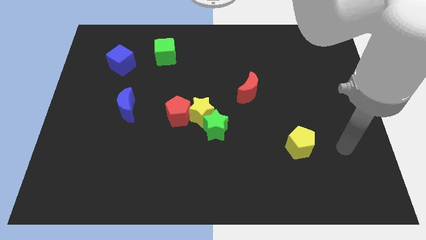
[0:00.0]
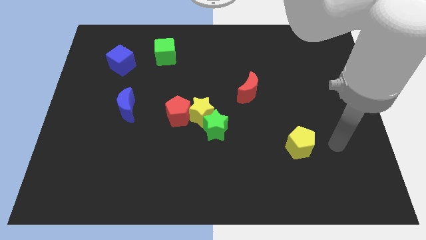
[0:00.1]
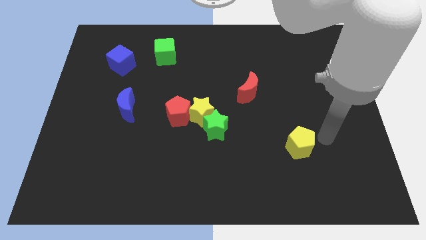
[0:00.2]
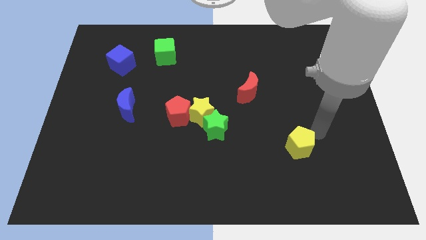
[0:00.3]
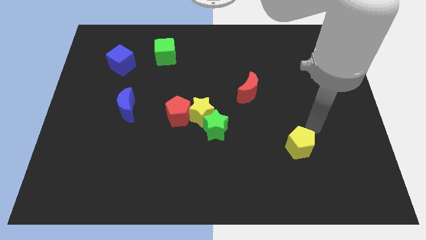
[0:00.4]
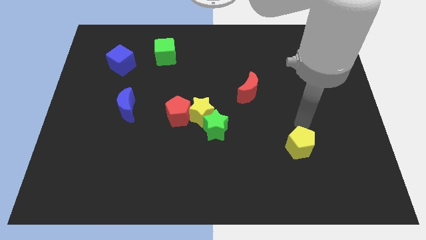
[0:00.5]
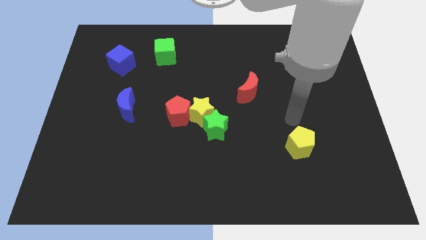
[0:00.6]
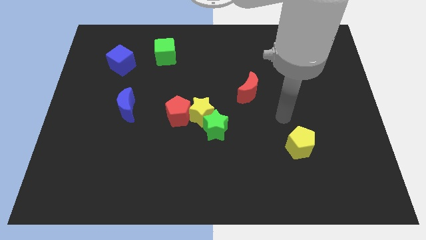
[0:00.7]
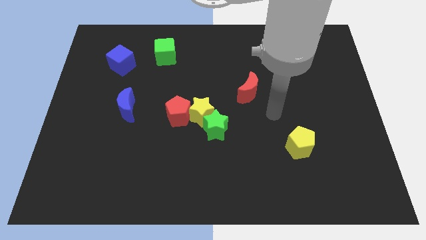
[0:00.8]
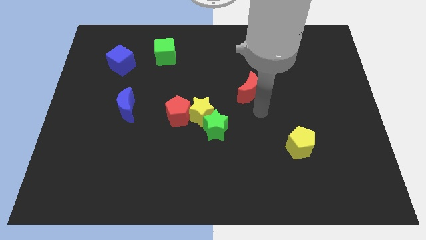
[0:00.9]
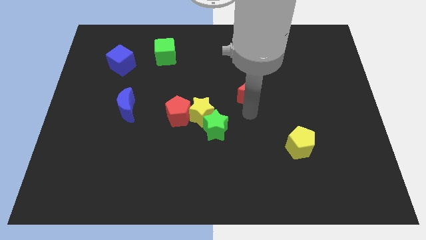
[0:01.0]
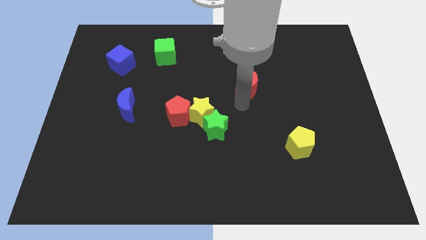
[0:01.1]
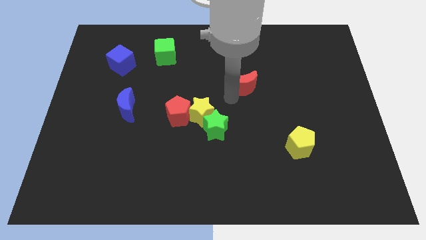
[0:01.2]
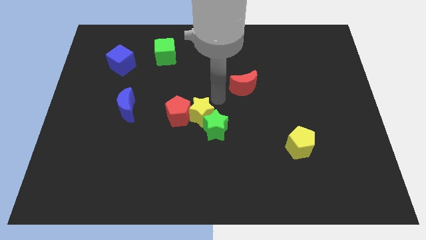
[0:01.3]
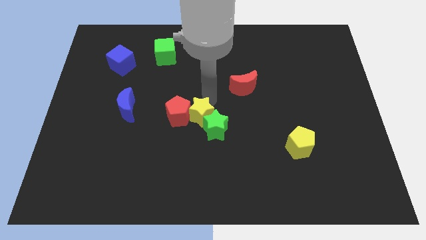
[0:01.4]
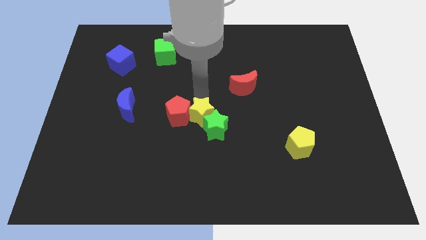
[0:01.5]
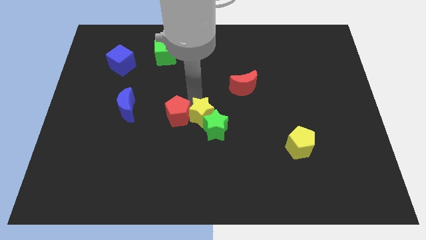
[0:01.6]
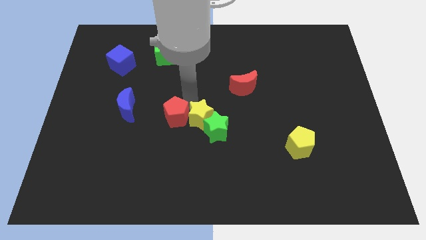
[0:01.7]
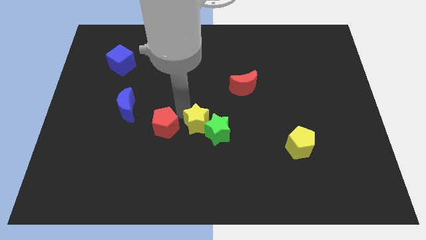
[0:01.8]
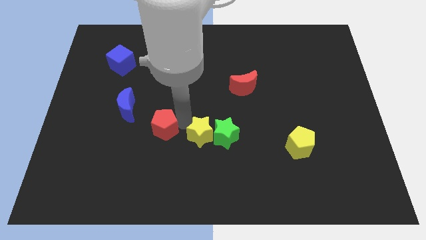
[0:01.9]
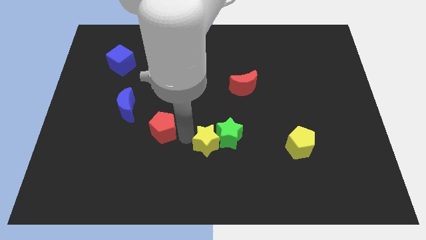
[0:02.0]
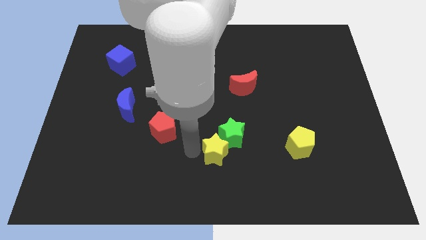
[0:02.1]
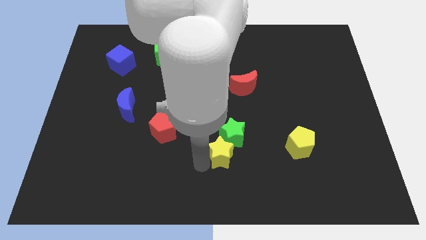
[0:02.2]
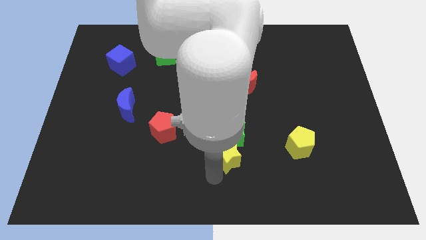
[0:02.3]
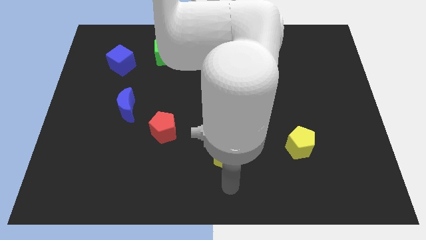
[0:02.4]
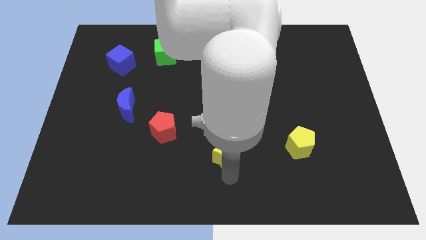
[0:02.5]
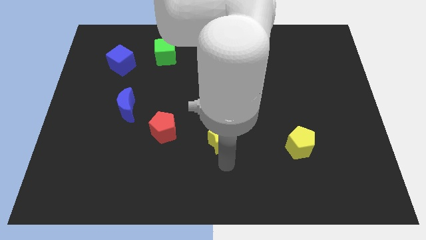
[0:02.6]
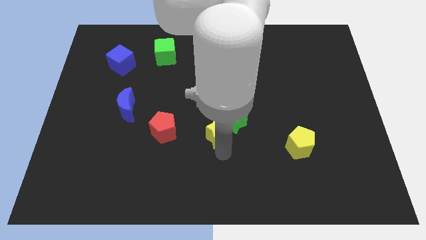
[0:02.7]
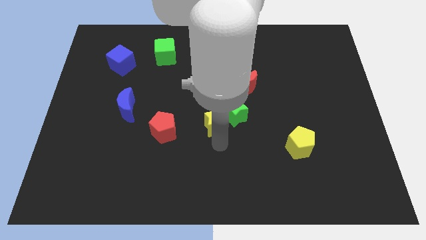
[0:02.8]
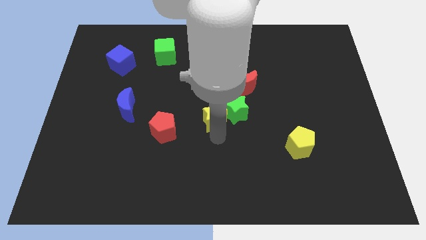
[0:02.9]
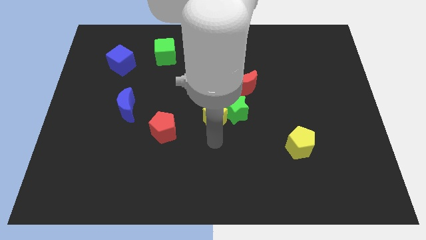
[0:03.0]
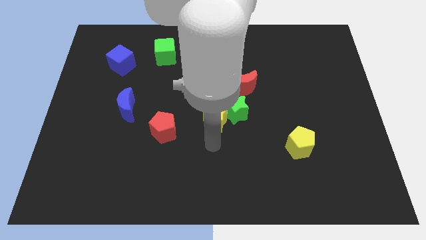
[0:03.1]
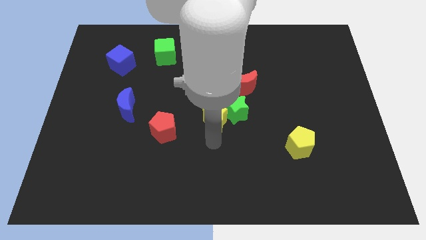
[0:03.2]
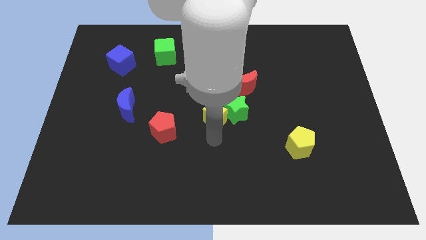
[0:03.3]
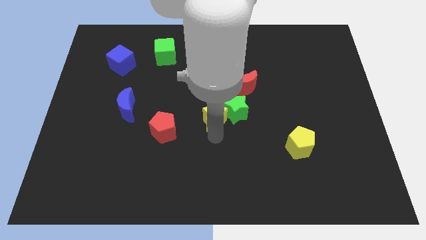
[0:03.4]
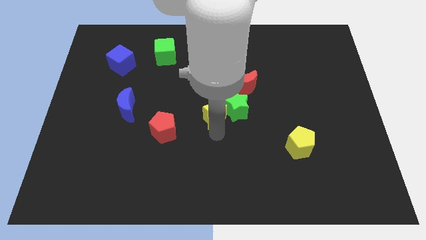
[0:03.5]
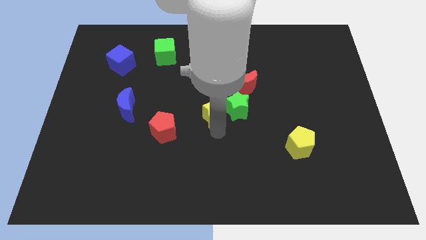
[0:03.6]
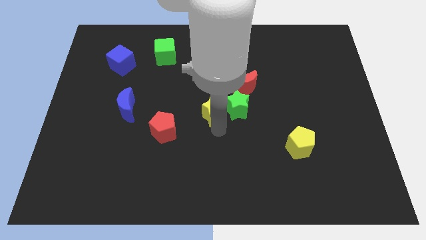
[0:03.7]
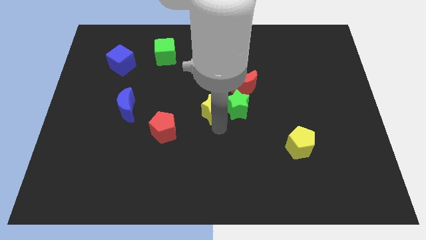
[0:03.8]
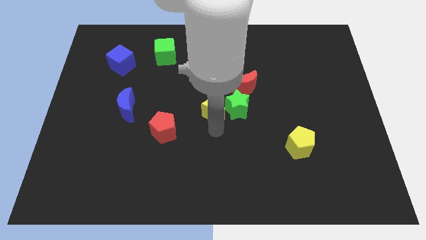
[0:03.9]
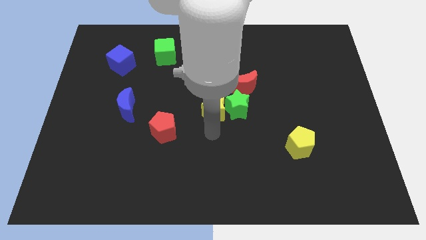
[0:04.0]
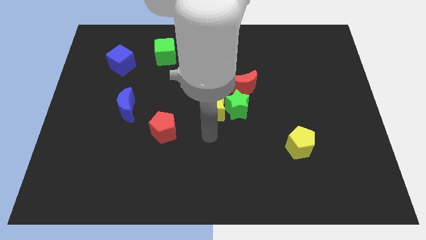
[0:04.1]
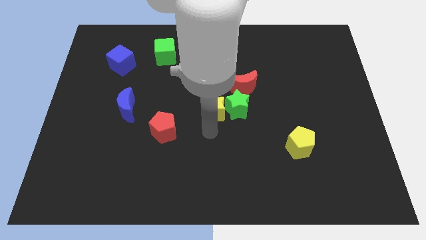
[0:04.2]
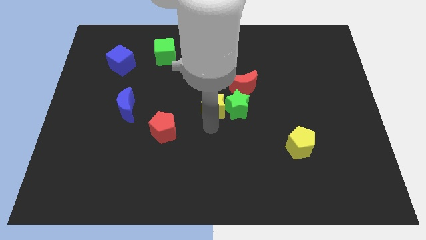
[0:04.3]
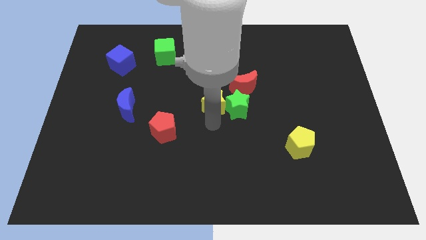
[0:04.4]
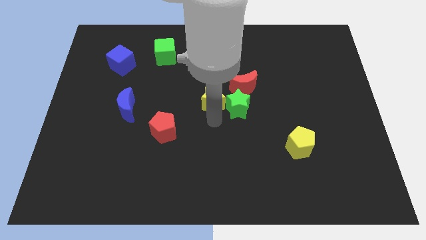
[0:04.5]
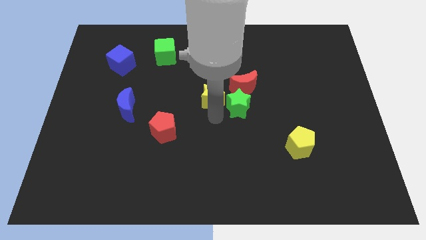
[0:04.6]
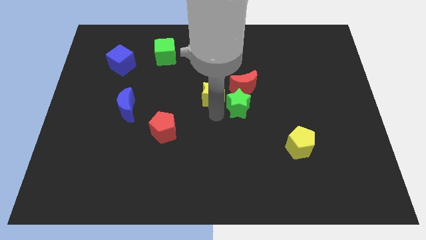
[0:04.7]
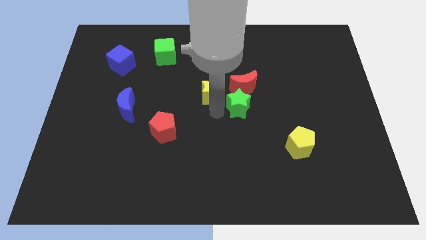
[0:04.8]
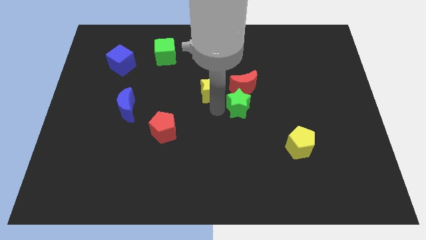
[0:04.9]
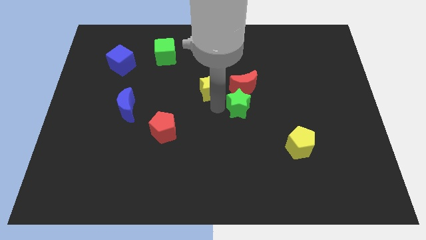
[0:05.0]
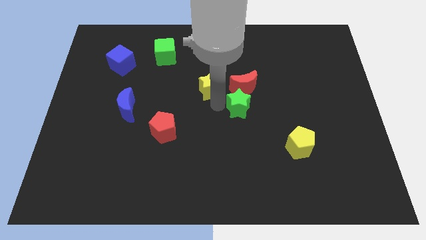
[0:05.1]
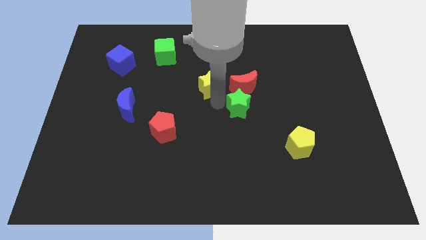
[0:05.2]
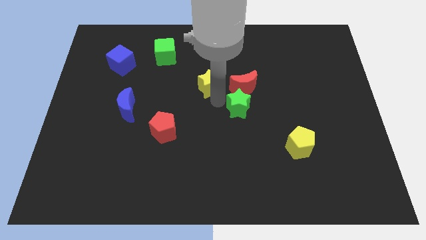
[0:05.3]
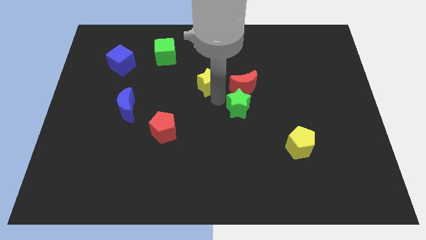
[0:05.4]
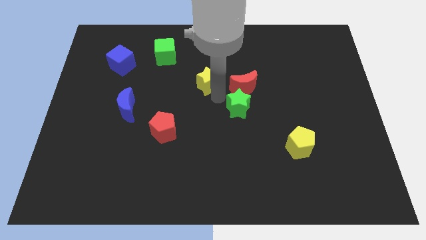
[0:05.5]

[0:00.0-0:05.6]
separate the yellow star from the green star and red pentagon

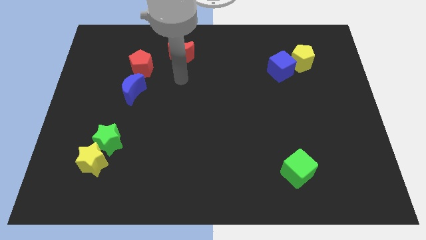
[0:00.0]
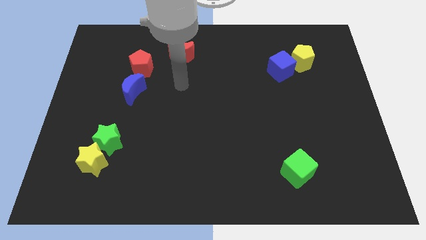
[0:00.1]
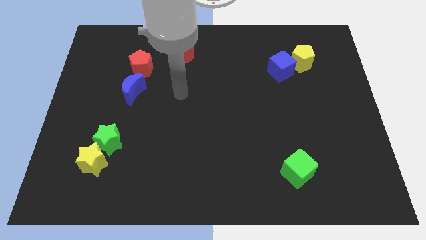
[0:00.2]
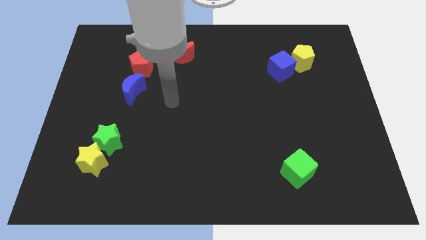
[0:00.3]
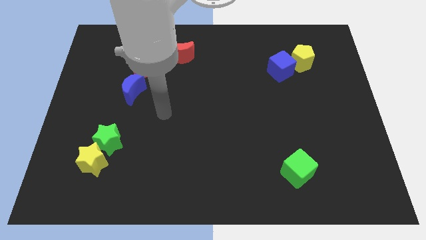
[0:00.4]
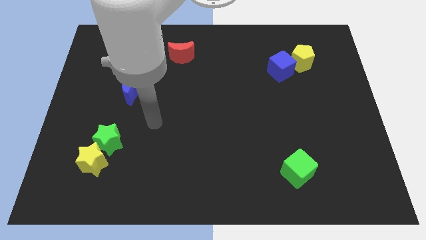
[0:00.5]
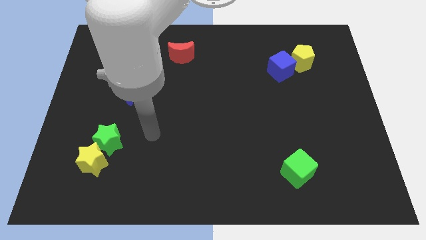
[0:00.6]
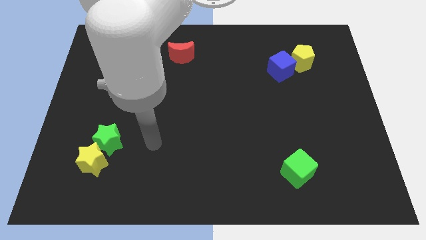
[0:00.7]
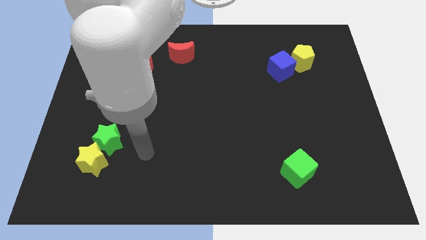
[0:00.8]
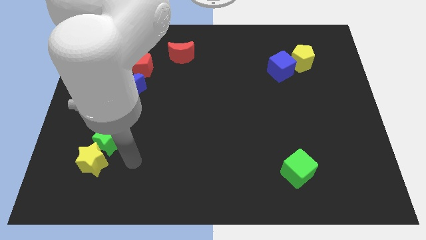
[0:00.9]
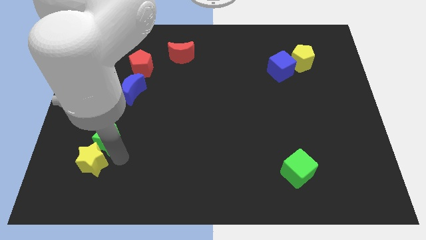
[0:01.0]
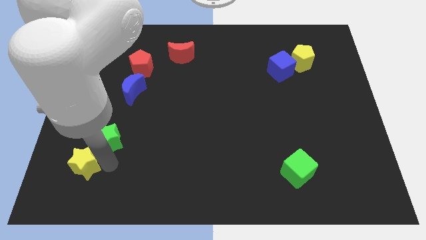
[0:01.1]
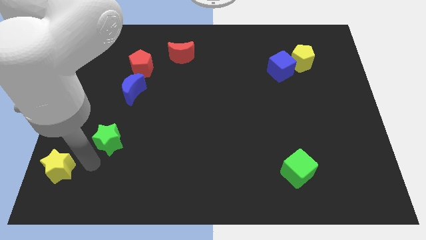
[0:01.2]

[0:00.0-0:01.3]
separate the green star from the yellow star

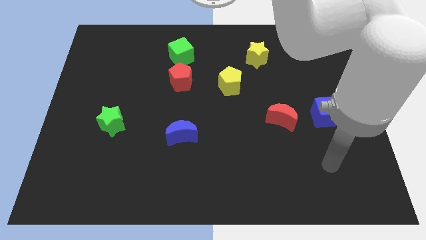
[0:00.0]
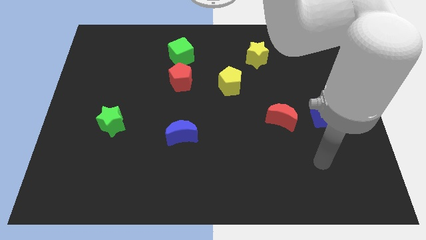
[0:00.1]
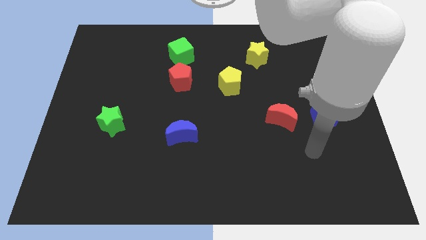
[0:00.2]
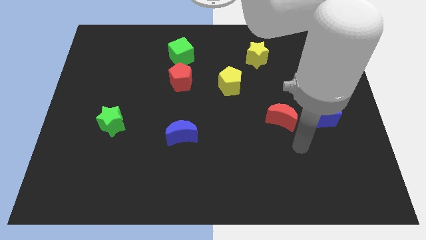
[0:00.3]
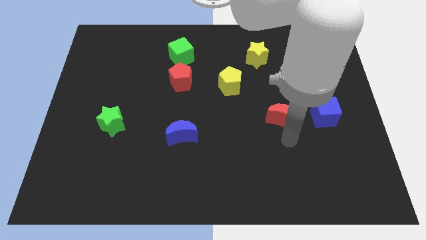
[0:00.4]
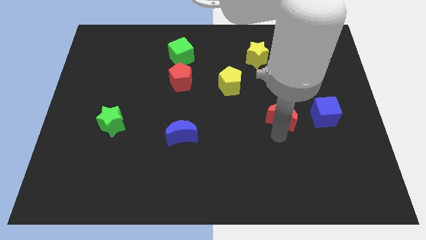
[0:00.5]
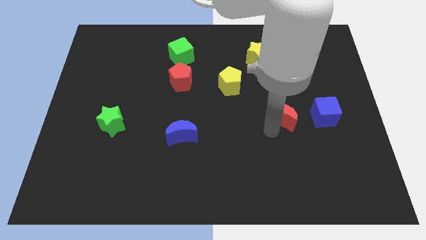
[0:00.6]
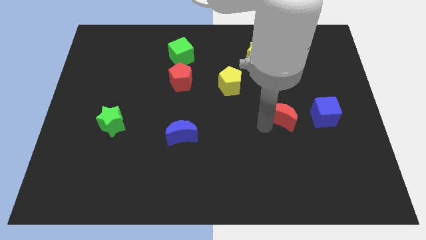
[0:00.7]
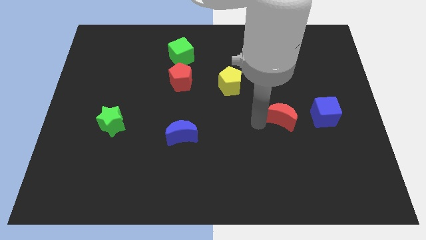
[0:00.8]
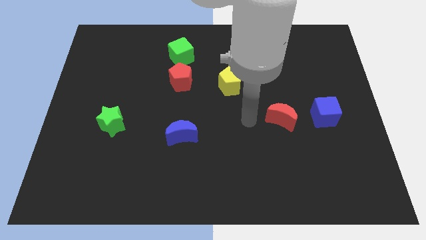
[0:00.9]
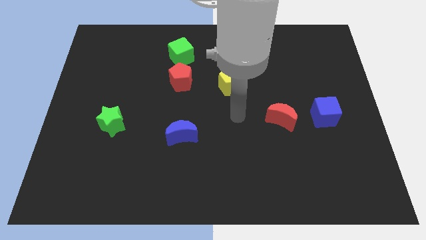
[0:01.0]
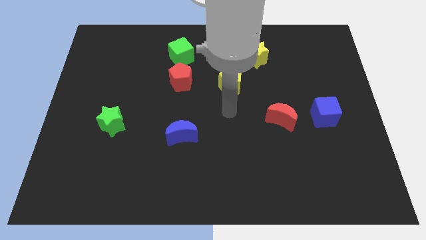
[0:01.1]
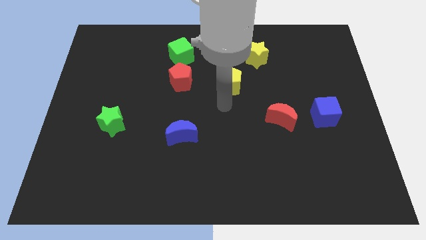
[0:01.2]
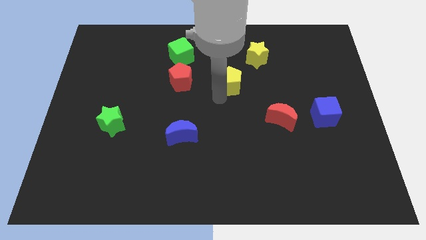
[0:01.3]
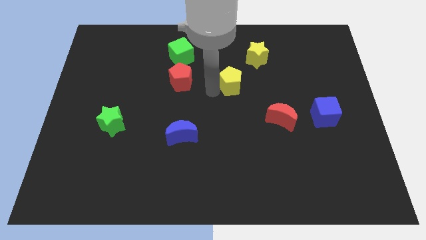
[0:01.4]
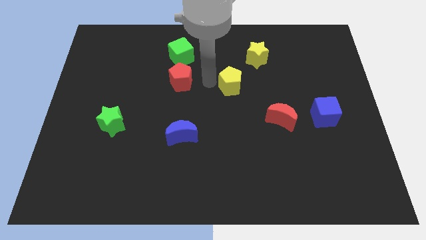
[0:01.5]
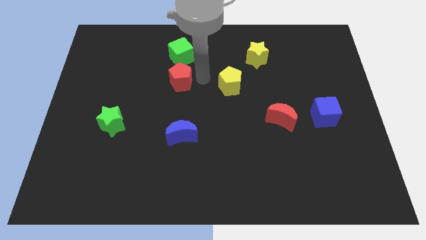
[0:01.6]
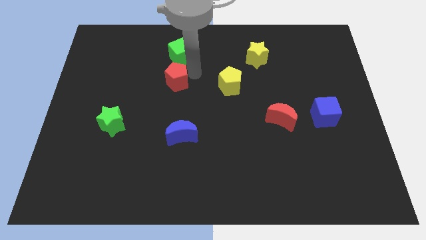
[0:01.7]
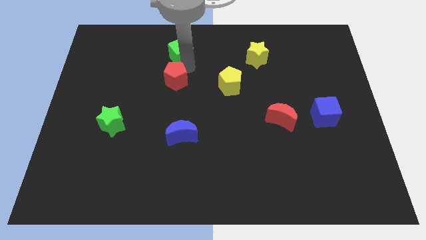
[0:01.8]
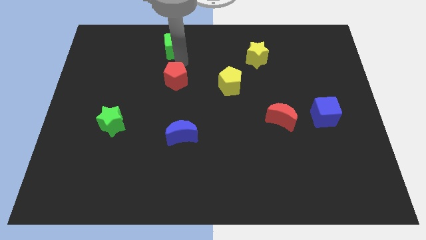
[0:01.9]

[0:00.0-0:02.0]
pull the red pentagon apart from the green cube

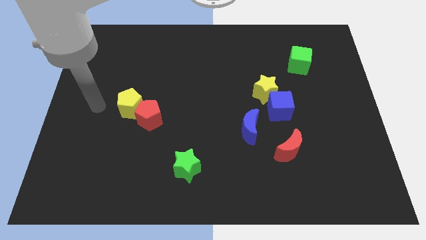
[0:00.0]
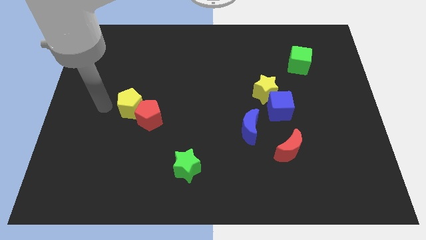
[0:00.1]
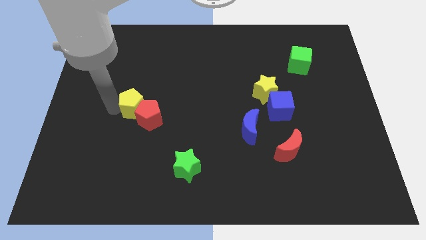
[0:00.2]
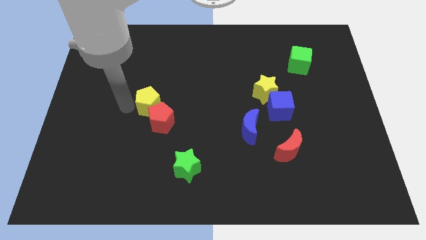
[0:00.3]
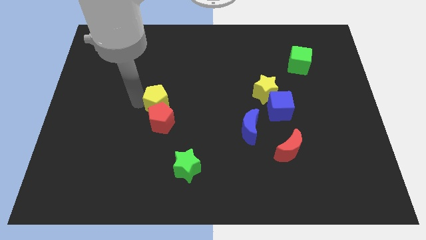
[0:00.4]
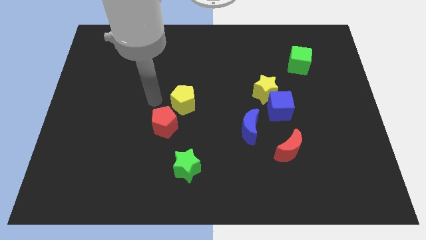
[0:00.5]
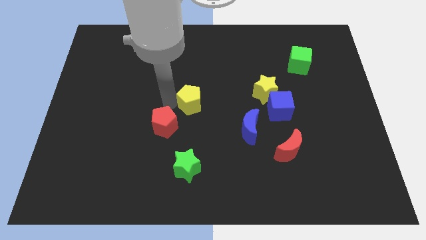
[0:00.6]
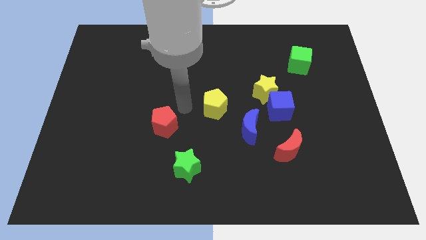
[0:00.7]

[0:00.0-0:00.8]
pull the red pentagon apart from the yellow pentagon
